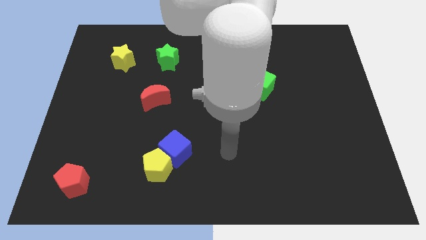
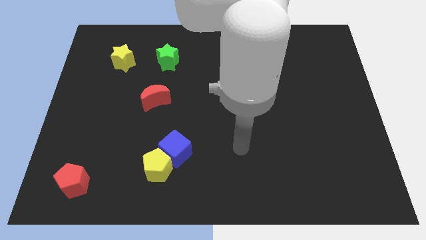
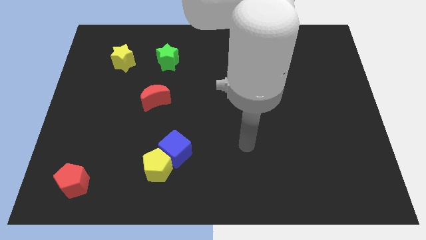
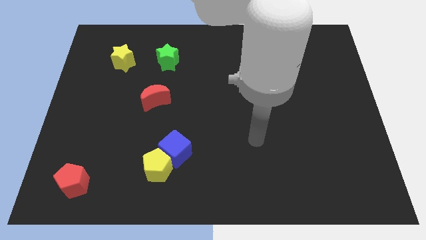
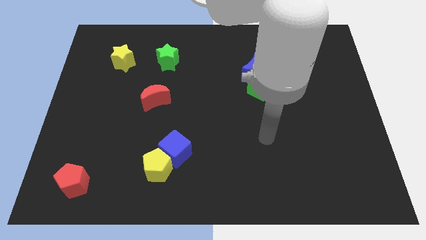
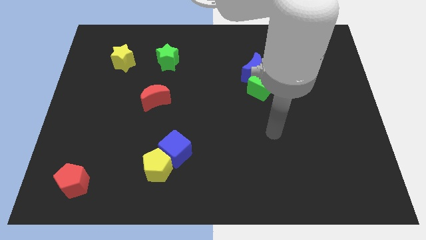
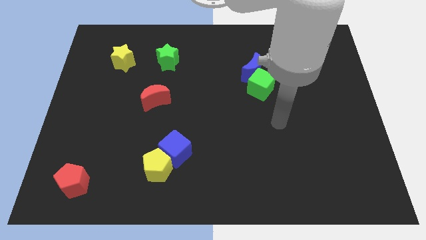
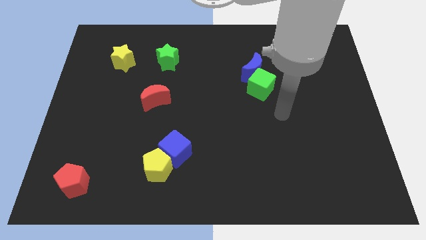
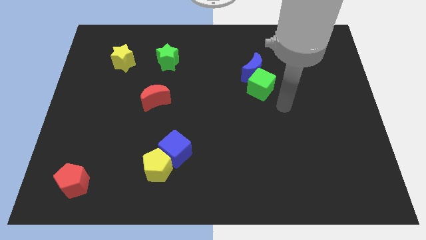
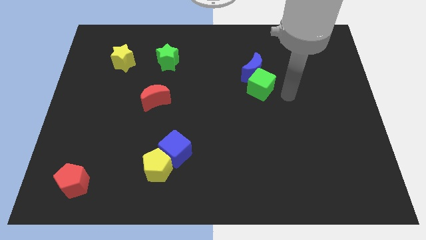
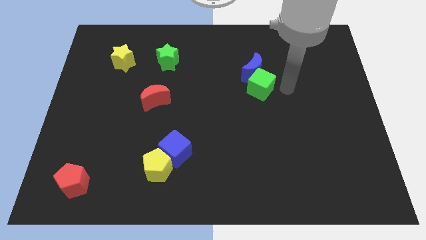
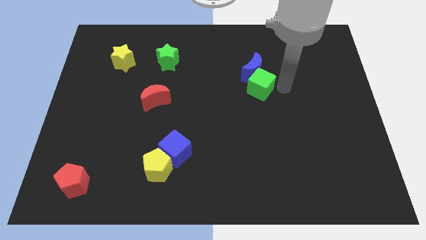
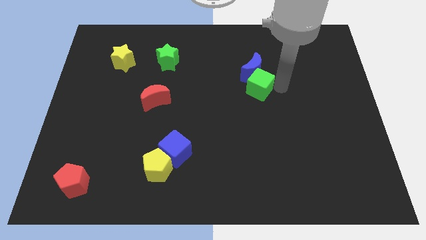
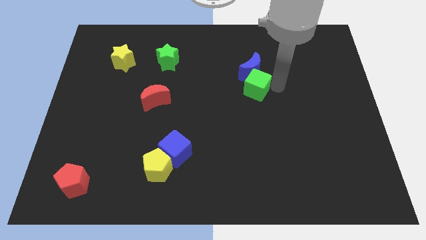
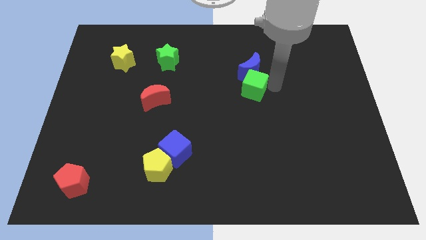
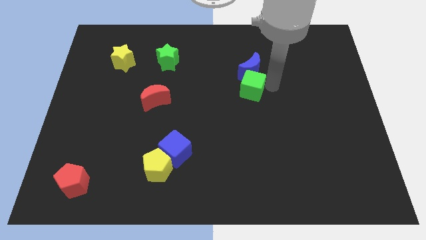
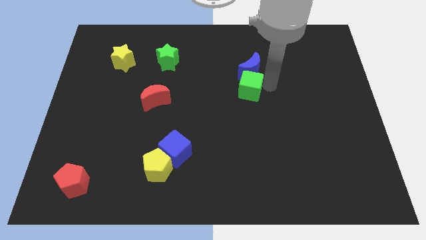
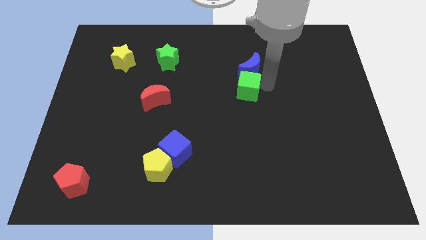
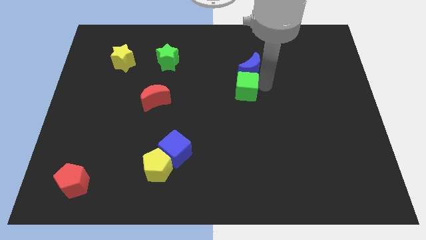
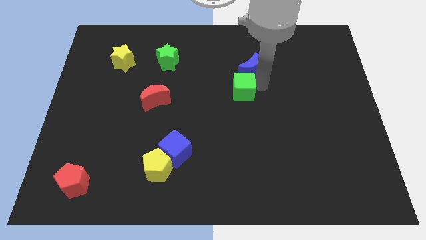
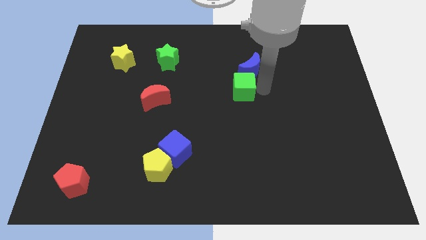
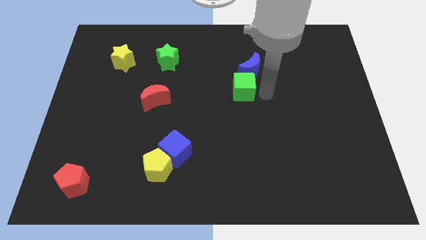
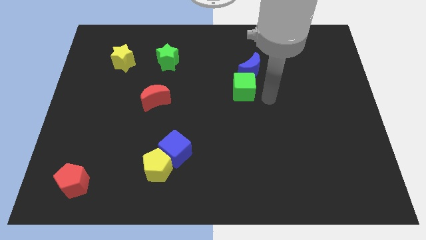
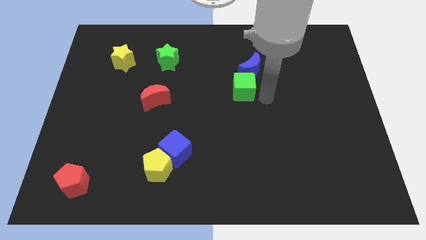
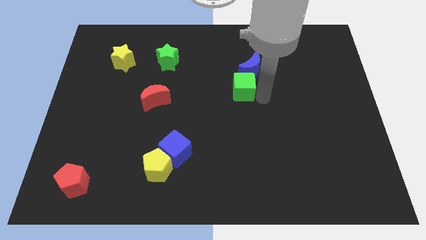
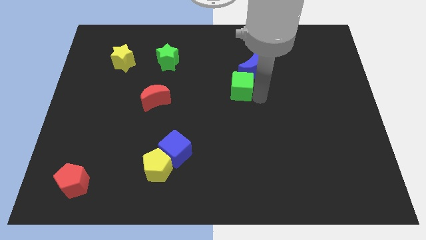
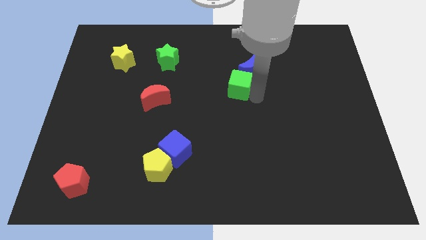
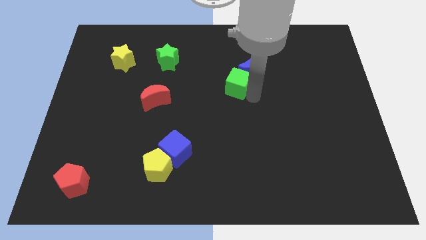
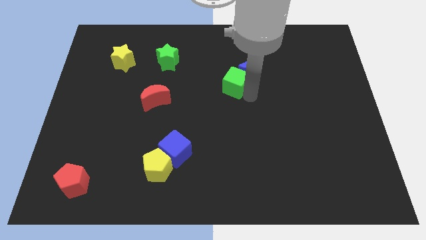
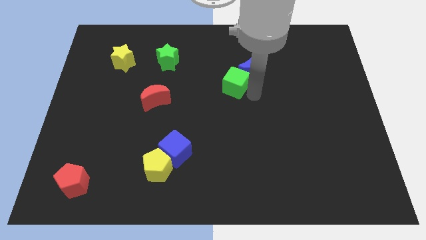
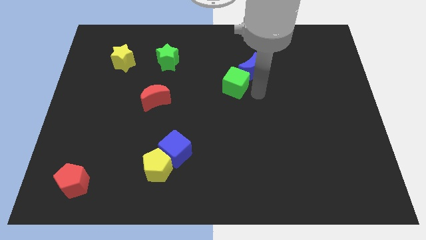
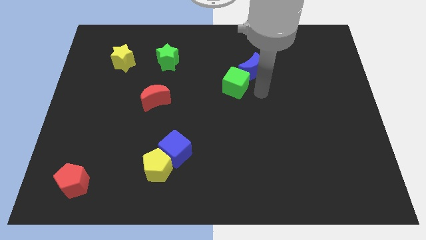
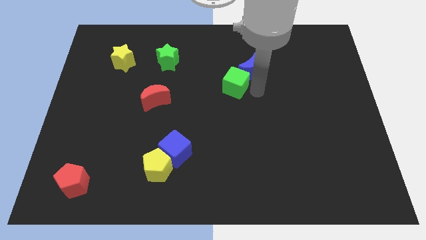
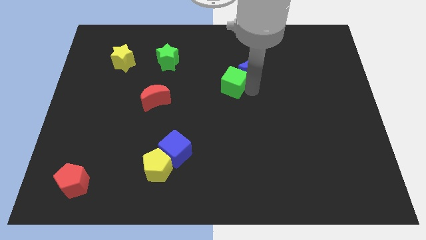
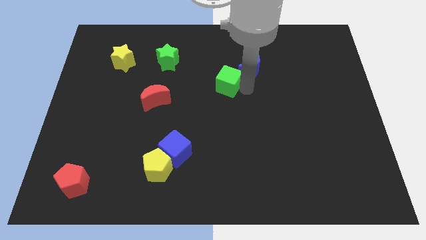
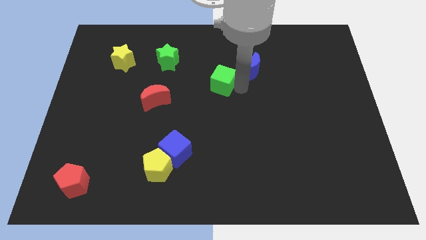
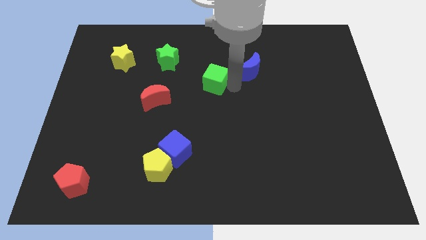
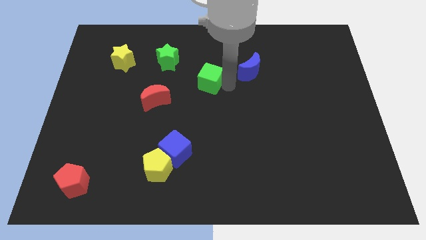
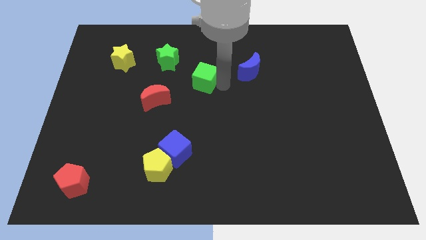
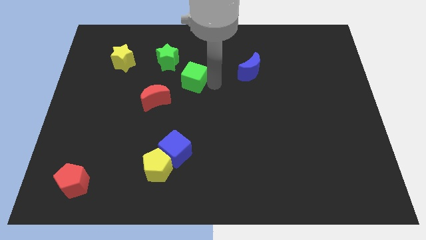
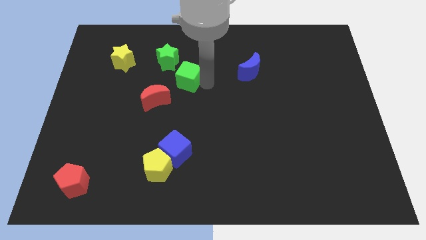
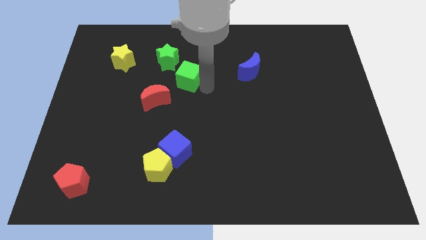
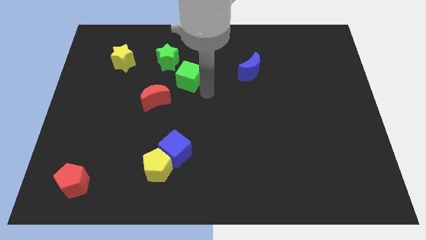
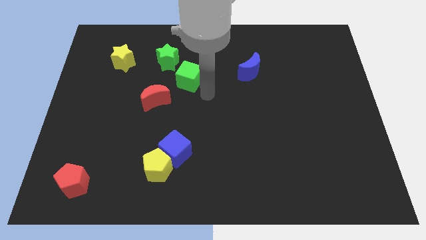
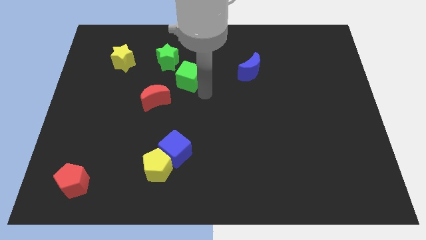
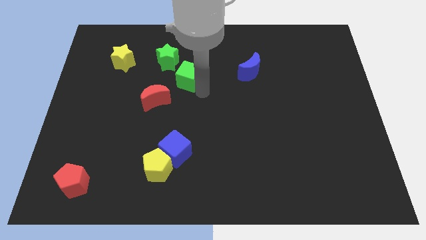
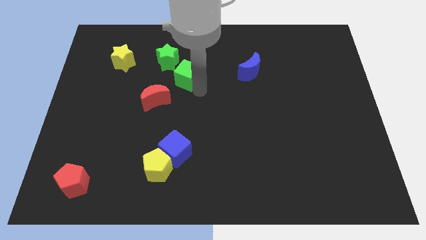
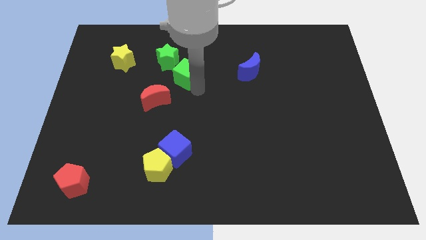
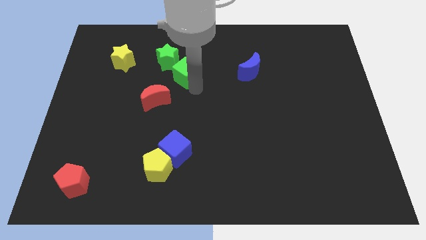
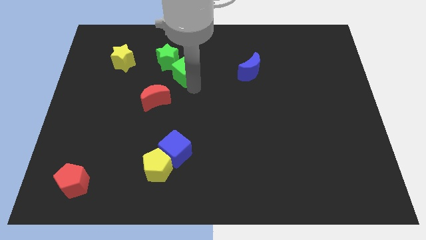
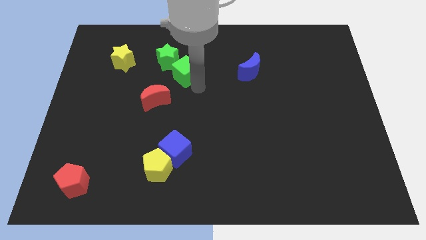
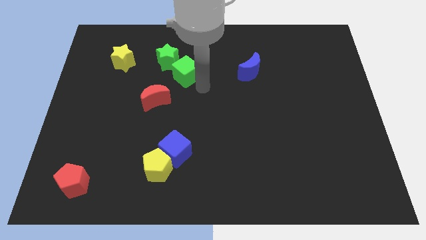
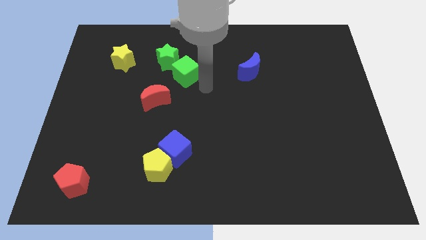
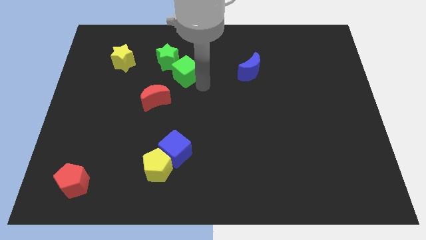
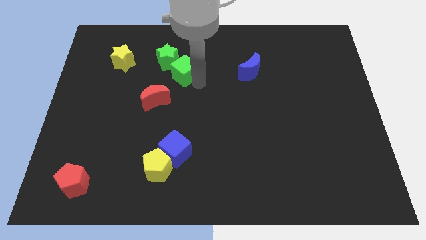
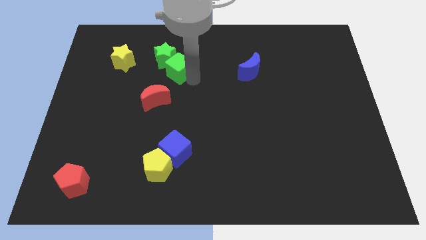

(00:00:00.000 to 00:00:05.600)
move the green cube towards the green star

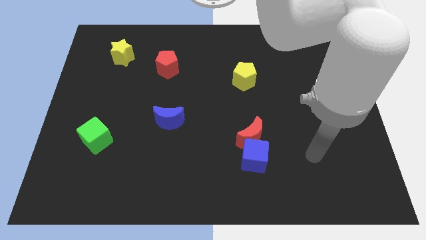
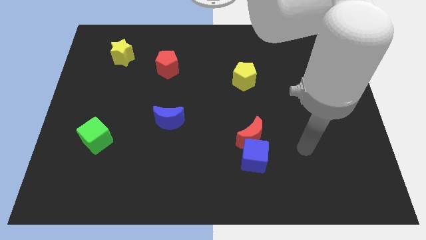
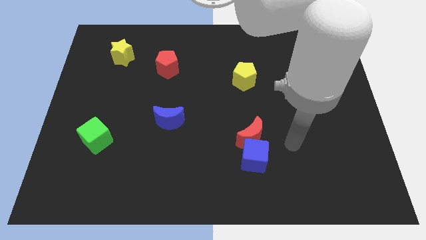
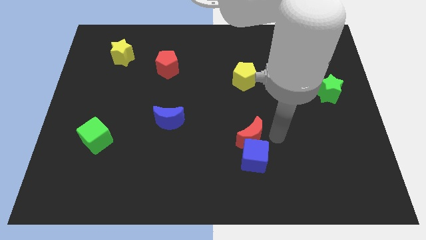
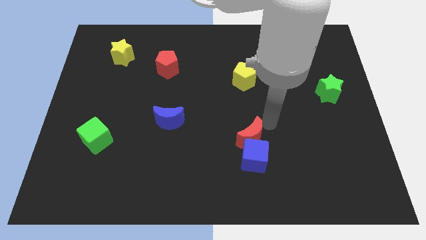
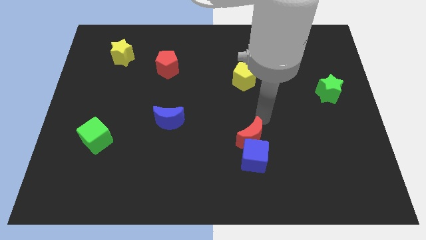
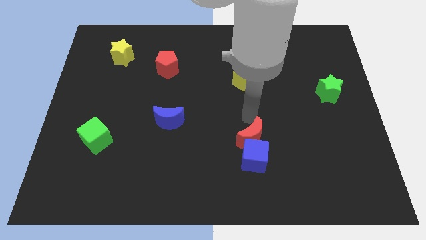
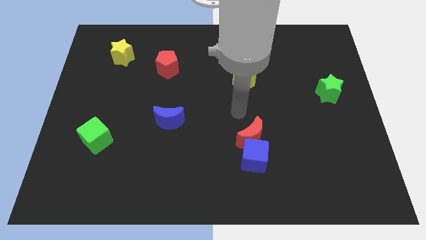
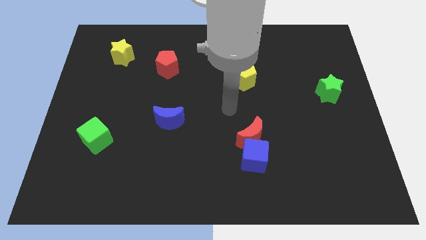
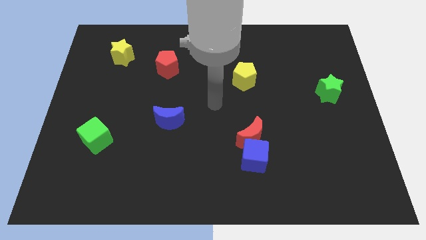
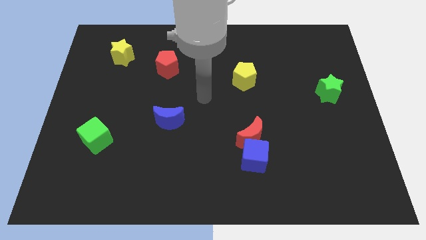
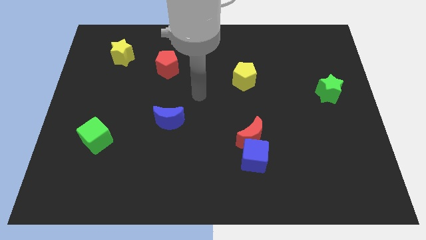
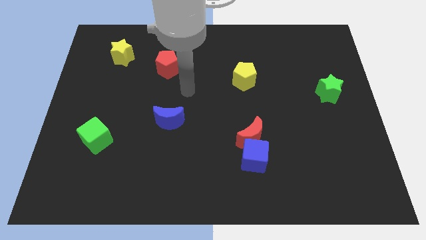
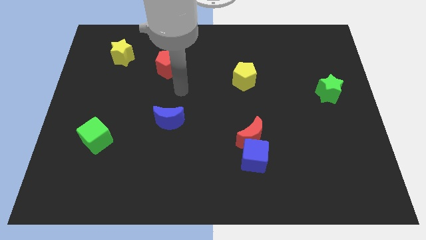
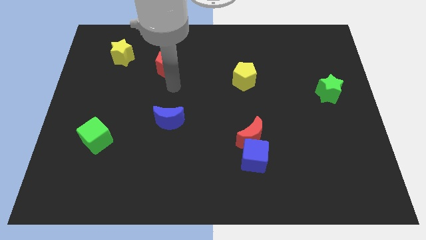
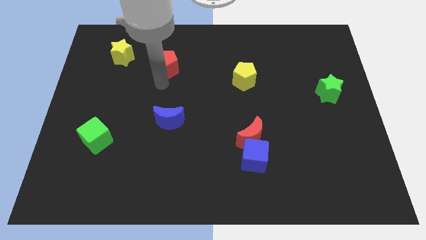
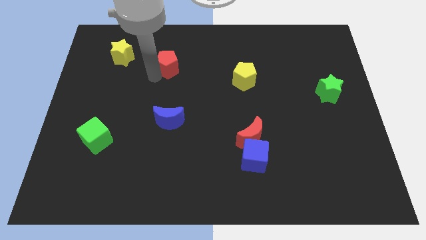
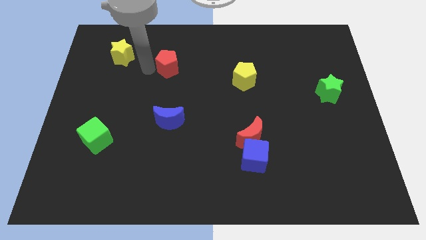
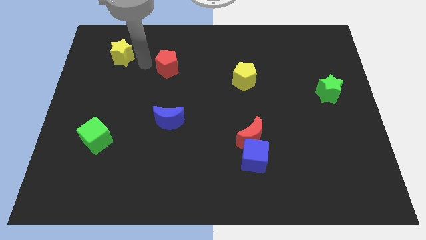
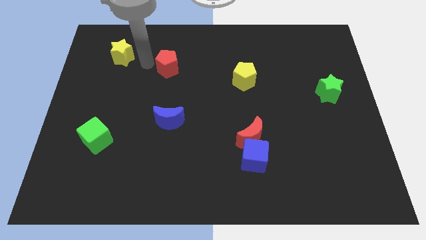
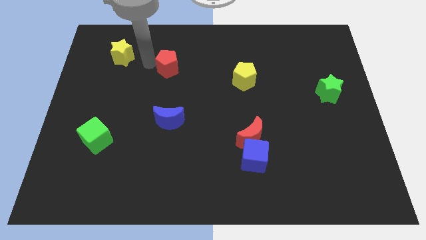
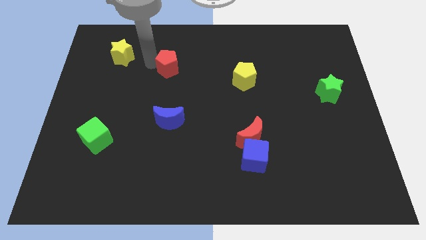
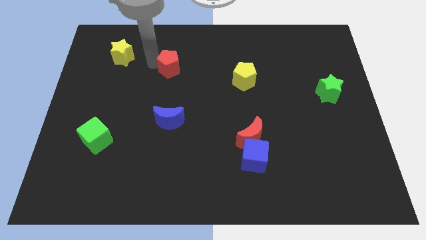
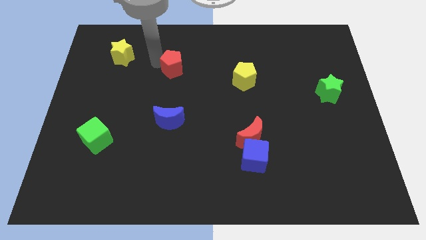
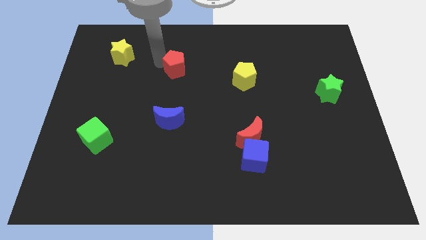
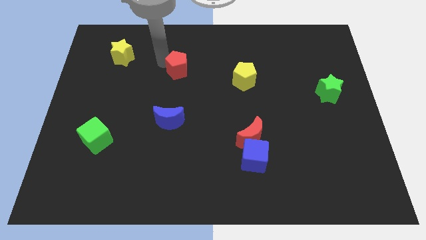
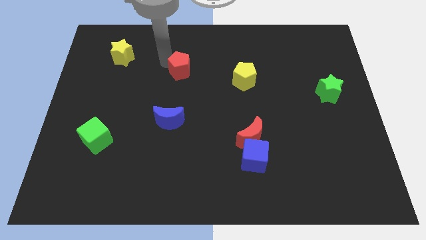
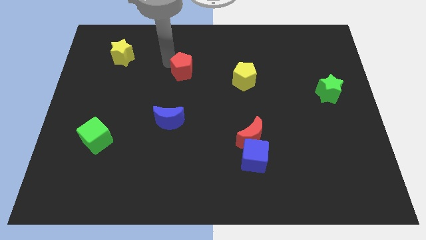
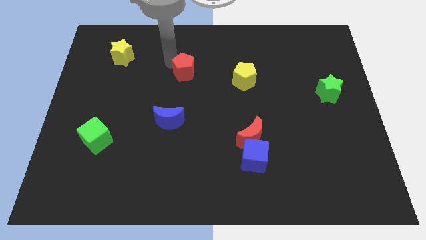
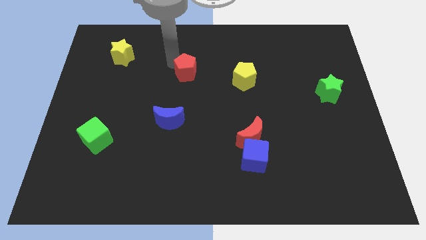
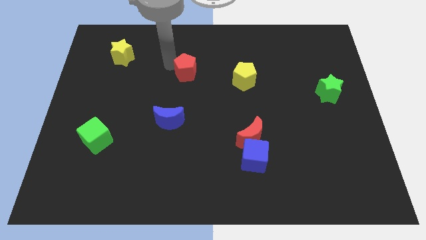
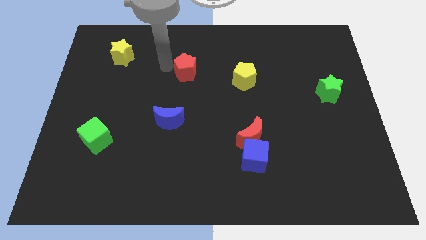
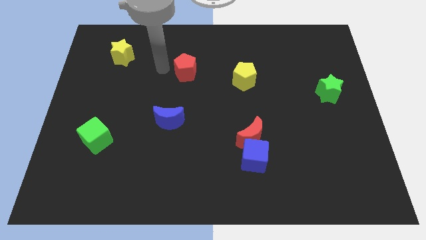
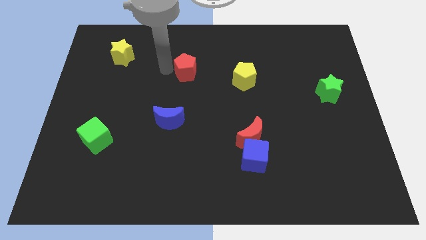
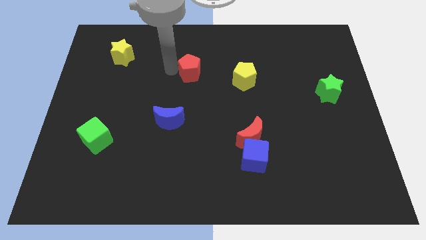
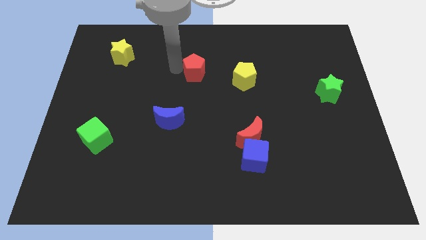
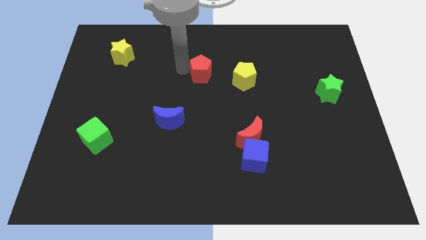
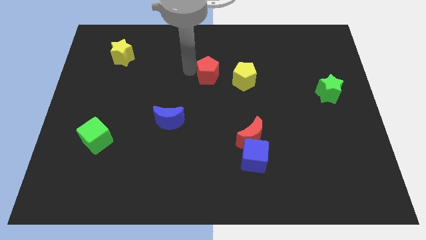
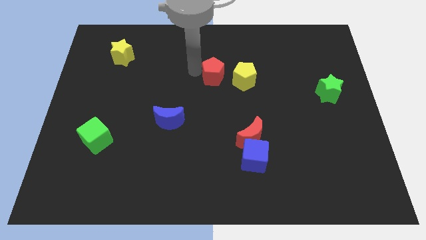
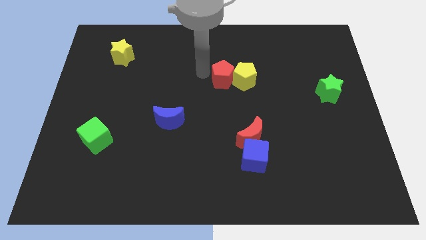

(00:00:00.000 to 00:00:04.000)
push the red pentagon close to the yellow pentagon
